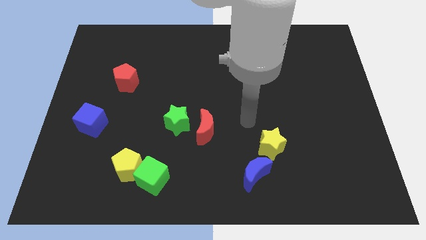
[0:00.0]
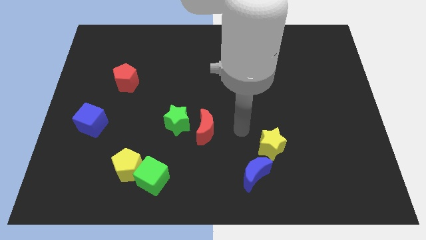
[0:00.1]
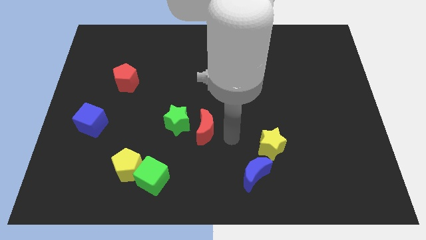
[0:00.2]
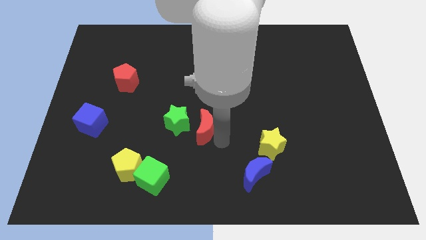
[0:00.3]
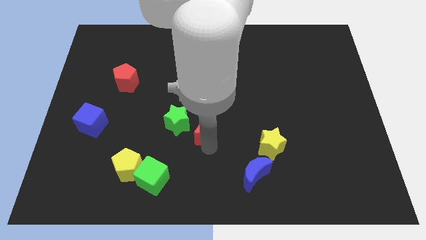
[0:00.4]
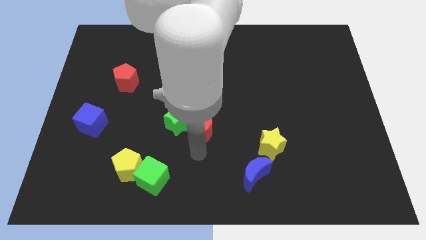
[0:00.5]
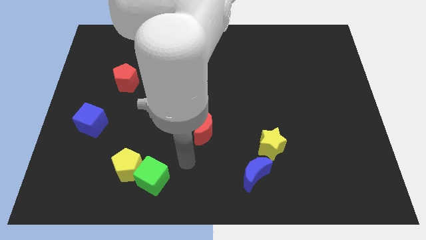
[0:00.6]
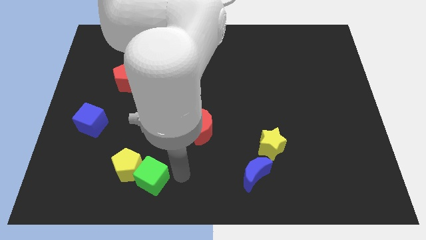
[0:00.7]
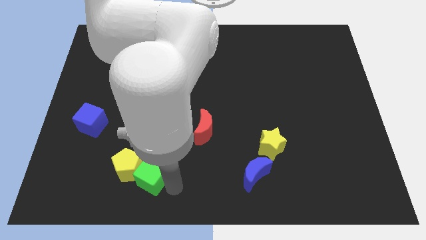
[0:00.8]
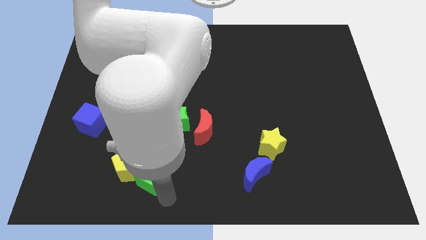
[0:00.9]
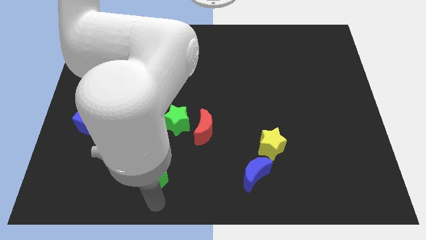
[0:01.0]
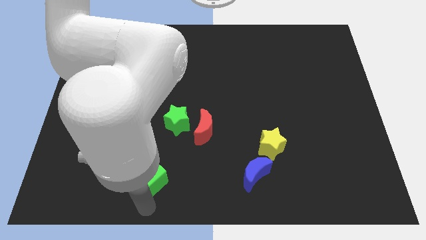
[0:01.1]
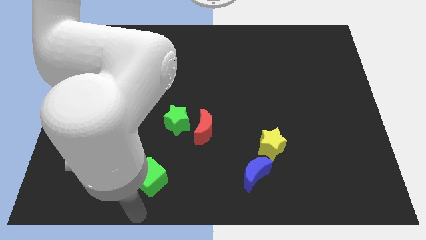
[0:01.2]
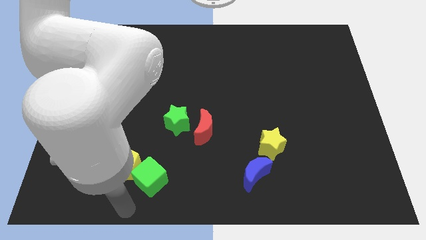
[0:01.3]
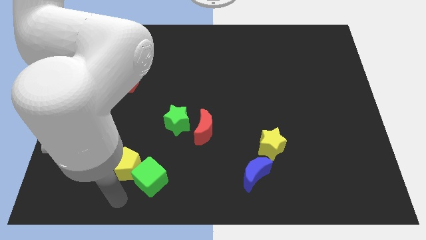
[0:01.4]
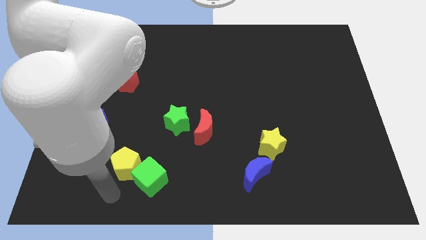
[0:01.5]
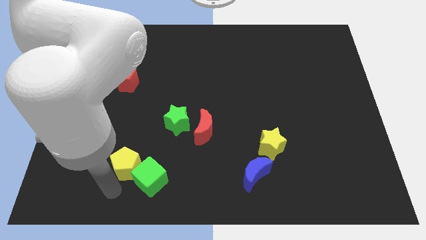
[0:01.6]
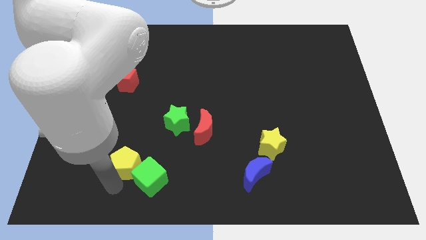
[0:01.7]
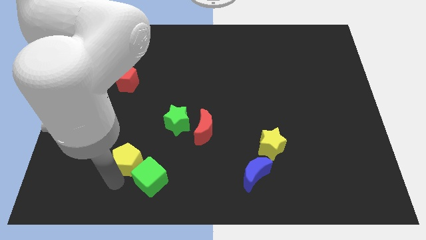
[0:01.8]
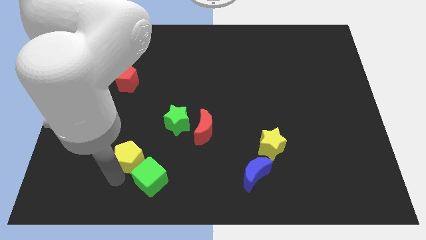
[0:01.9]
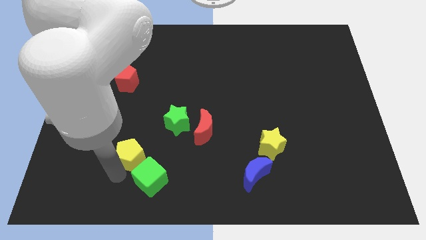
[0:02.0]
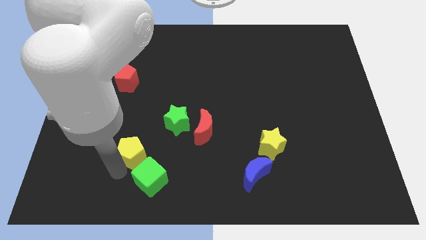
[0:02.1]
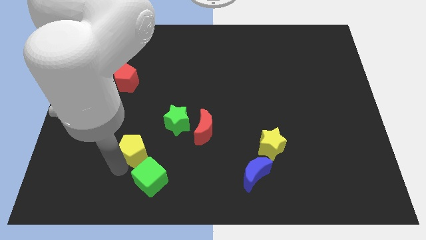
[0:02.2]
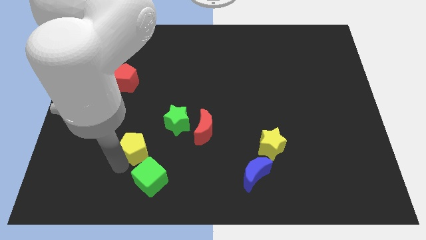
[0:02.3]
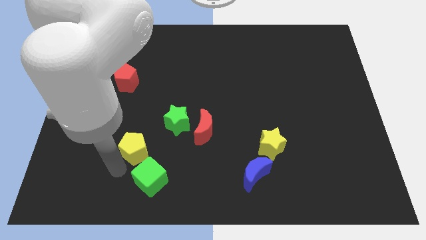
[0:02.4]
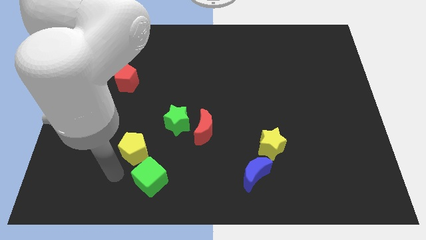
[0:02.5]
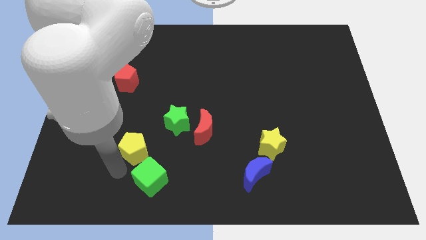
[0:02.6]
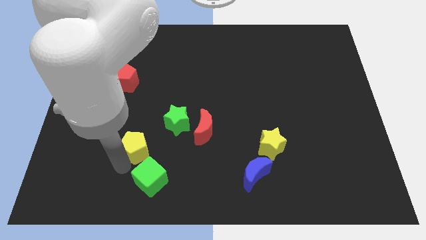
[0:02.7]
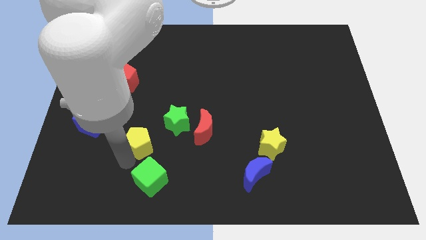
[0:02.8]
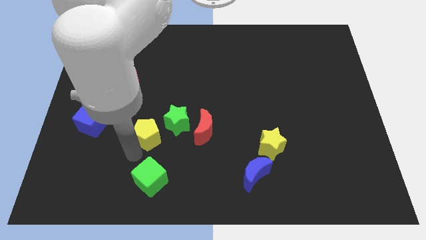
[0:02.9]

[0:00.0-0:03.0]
slide the yellow pentagon up and right a little

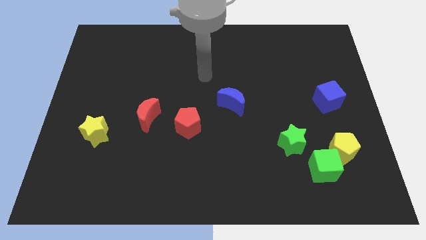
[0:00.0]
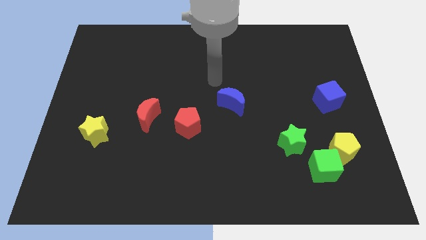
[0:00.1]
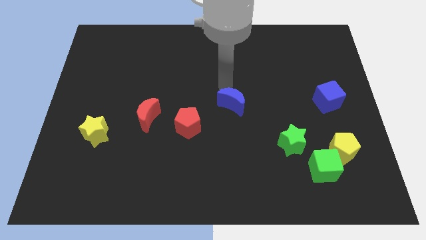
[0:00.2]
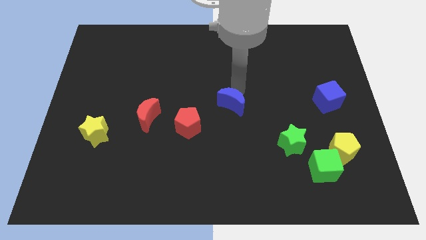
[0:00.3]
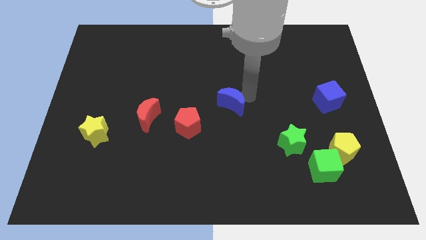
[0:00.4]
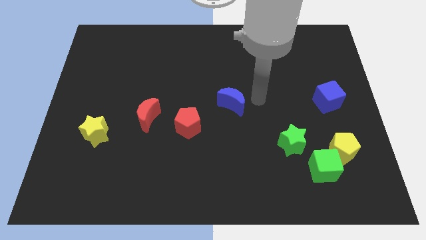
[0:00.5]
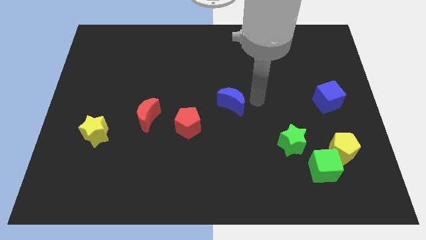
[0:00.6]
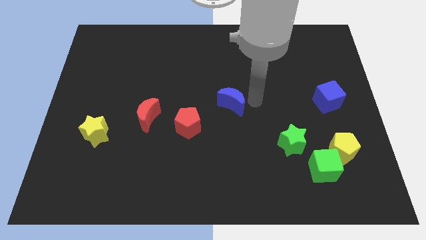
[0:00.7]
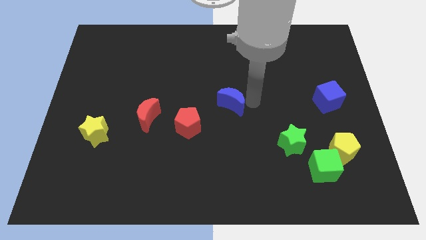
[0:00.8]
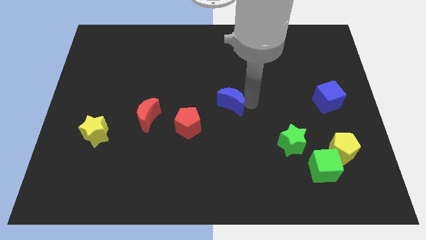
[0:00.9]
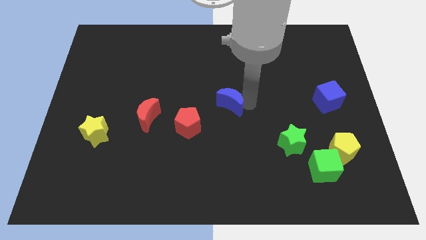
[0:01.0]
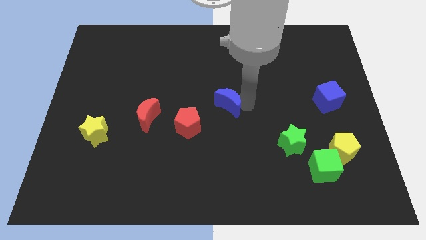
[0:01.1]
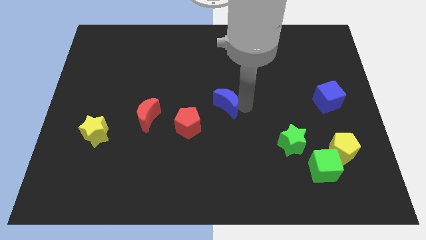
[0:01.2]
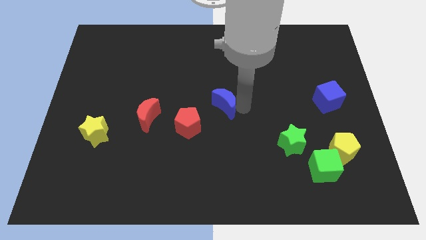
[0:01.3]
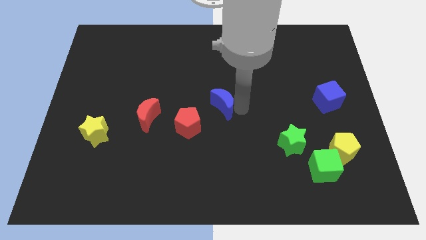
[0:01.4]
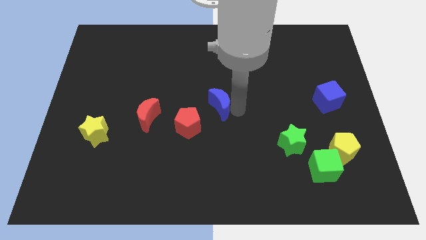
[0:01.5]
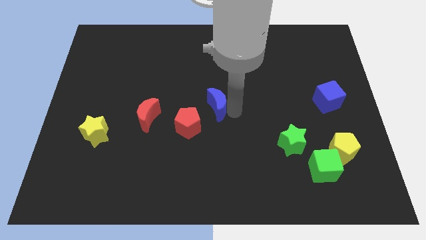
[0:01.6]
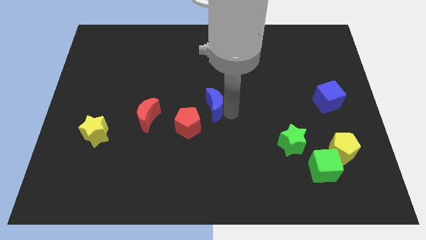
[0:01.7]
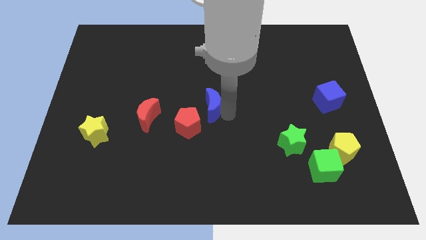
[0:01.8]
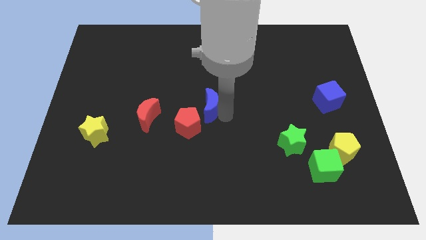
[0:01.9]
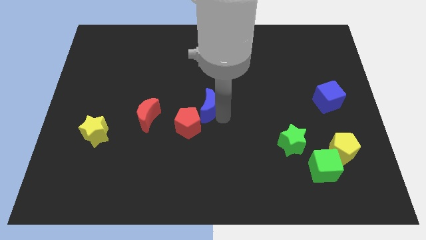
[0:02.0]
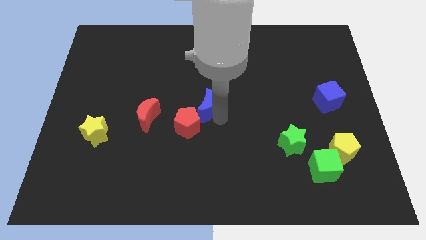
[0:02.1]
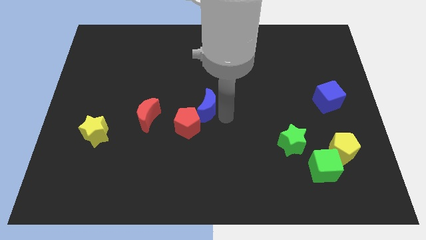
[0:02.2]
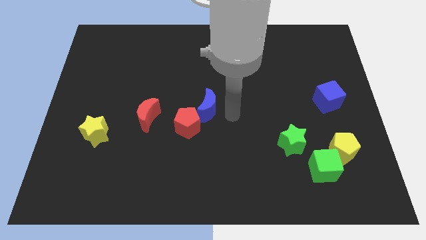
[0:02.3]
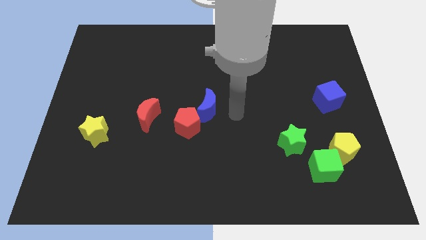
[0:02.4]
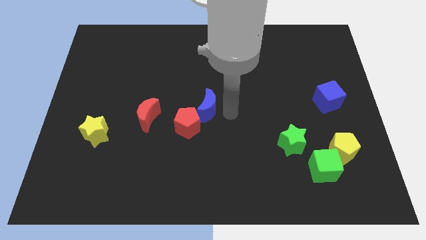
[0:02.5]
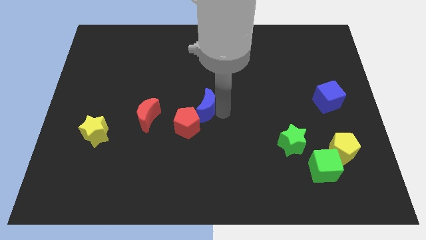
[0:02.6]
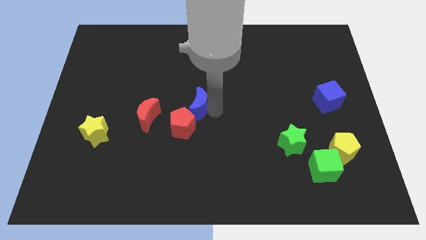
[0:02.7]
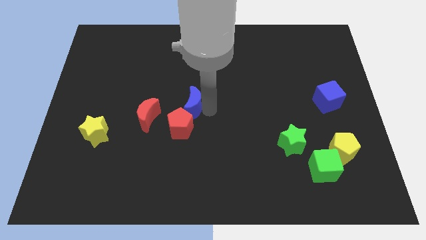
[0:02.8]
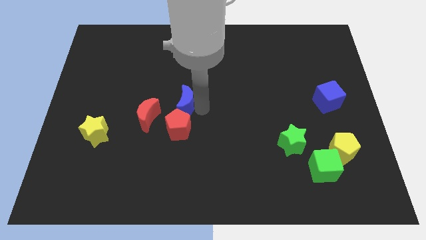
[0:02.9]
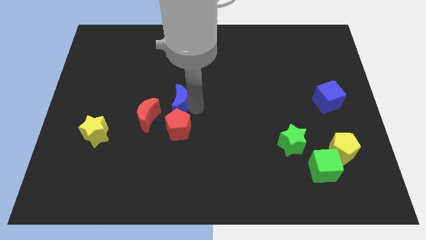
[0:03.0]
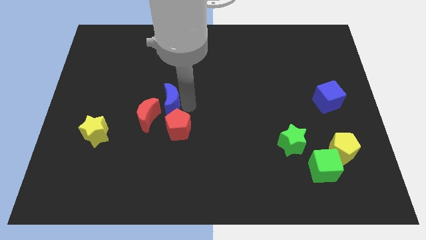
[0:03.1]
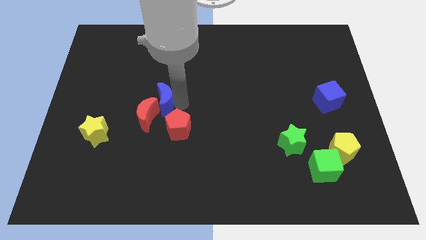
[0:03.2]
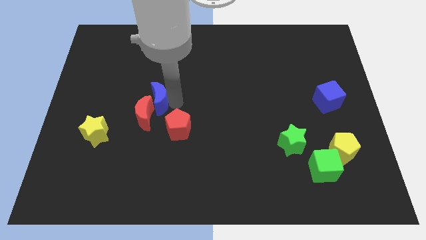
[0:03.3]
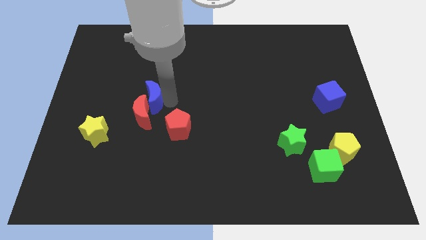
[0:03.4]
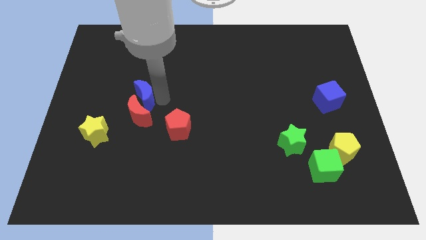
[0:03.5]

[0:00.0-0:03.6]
push the blue moon to the left

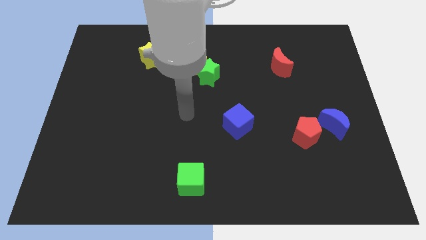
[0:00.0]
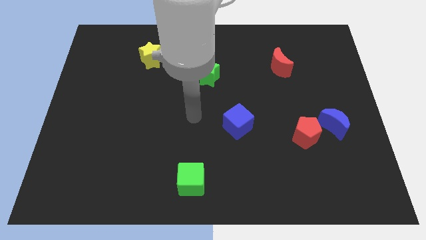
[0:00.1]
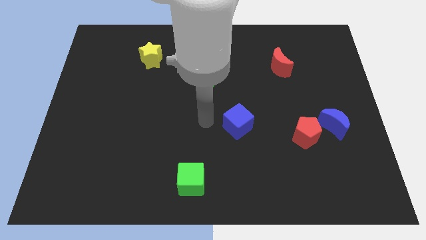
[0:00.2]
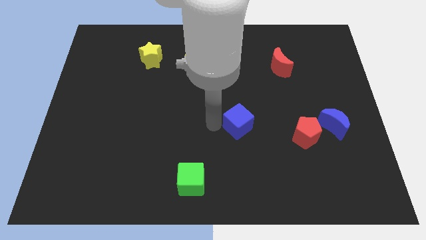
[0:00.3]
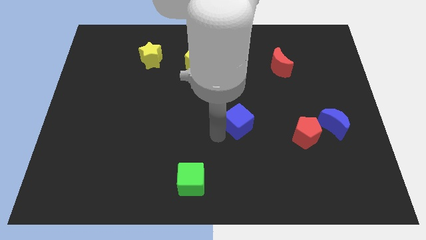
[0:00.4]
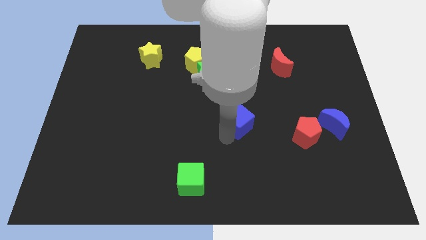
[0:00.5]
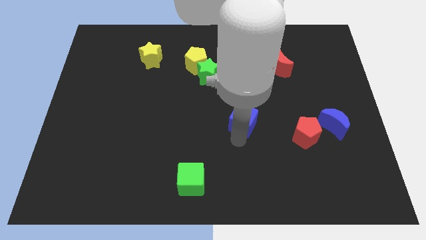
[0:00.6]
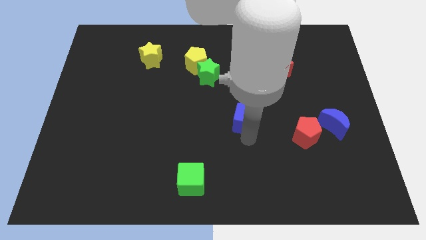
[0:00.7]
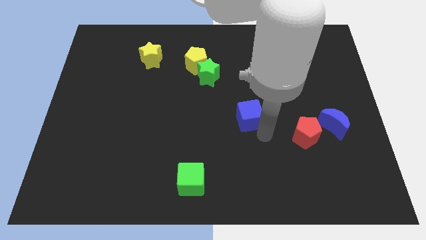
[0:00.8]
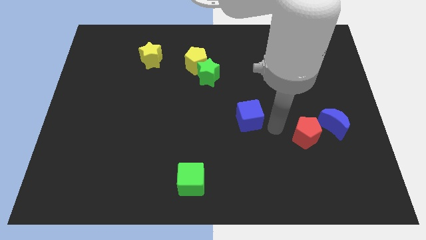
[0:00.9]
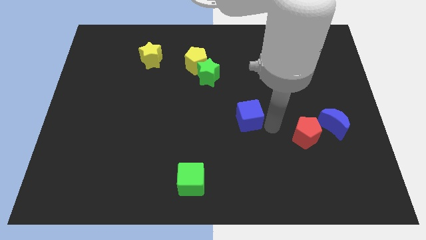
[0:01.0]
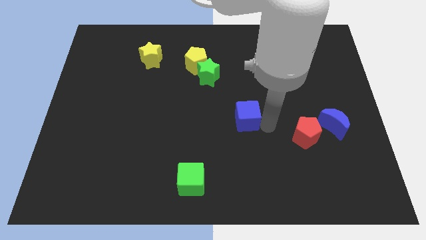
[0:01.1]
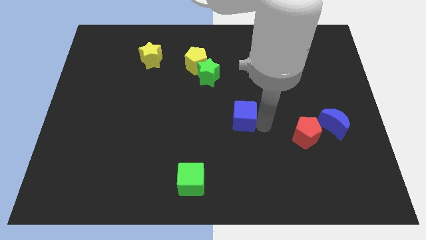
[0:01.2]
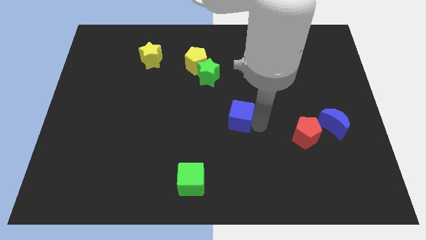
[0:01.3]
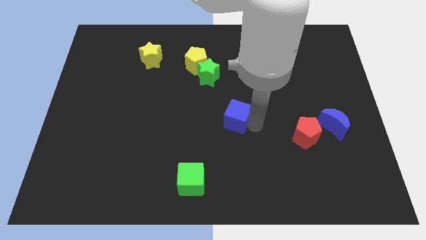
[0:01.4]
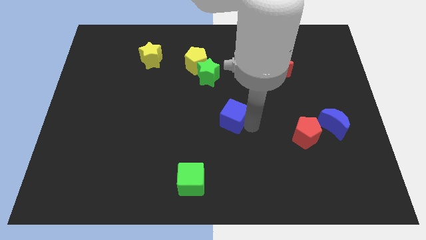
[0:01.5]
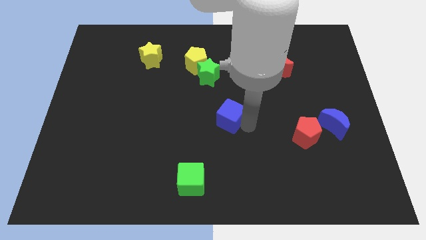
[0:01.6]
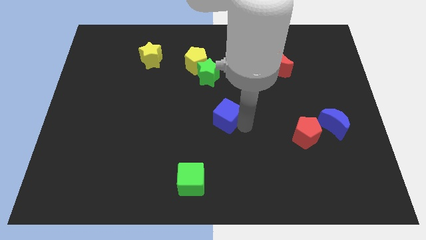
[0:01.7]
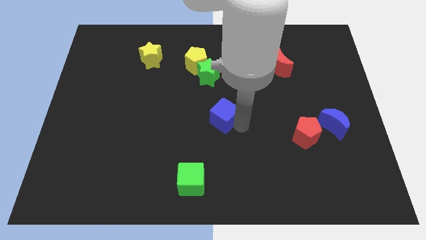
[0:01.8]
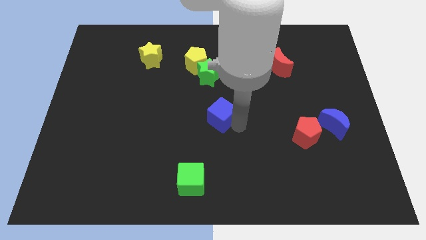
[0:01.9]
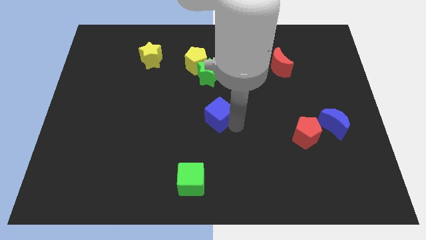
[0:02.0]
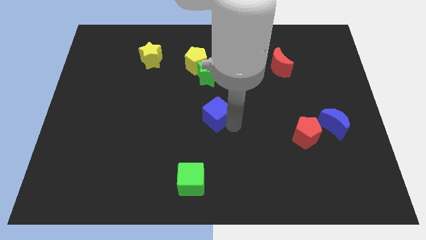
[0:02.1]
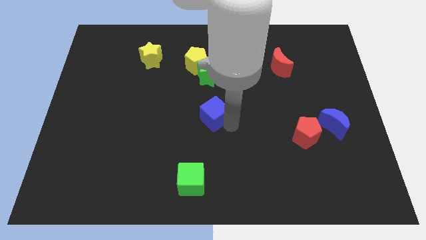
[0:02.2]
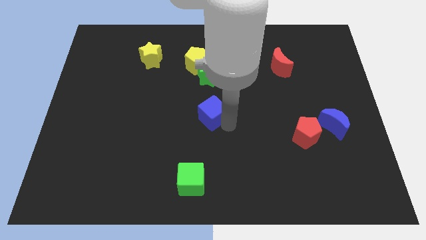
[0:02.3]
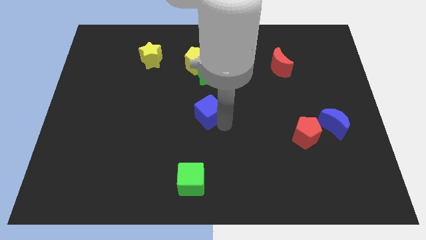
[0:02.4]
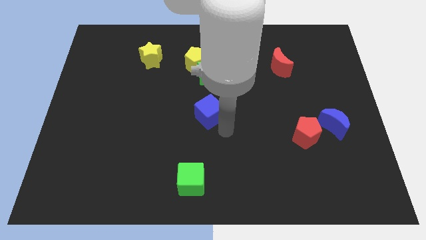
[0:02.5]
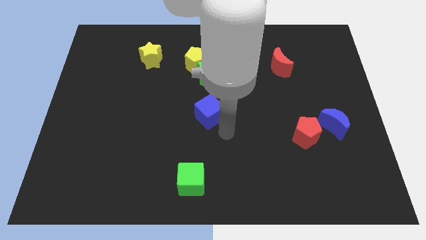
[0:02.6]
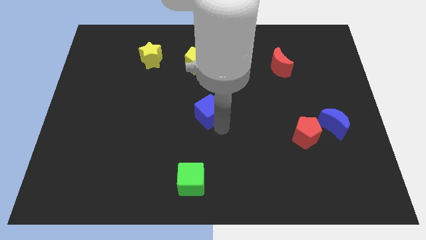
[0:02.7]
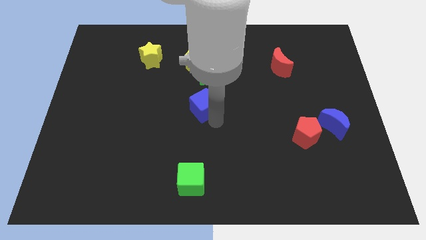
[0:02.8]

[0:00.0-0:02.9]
move the blue cube up and then to the left a little
